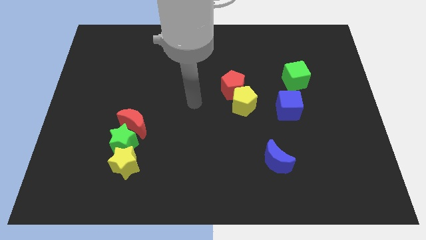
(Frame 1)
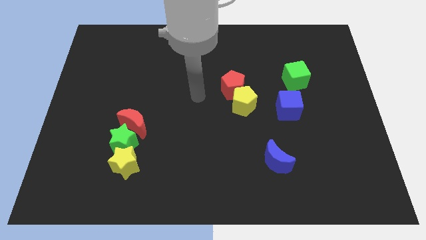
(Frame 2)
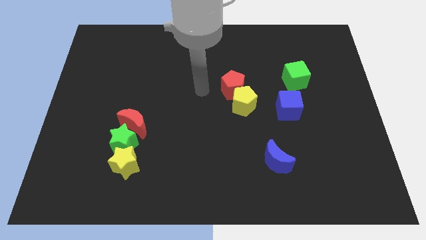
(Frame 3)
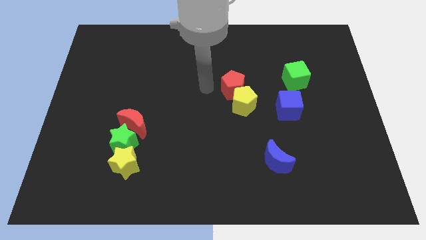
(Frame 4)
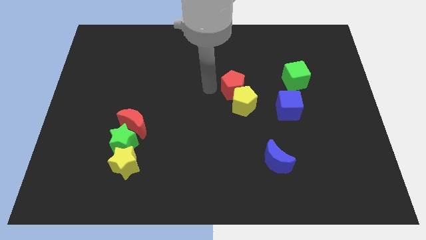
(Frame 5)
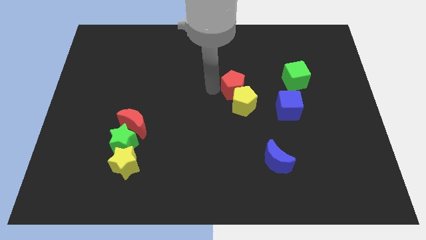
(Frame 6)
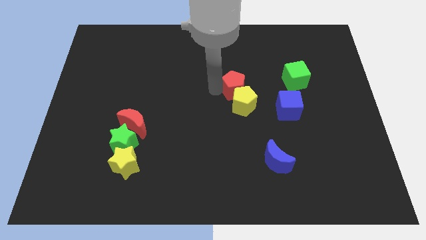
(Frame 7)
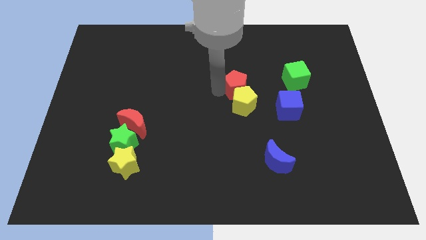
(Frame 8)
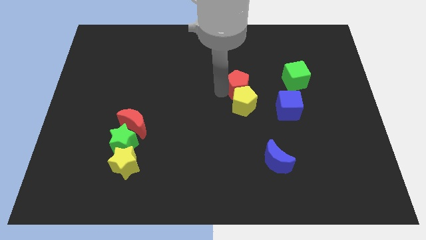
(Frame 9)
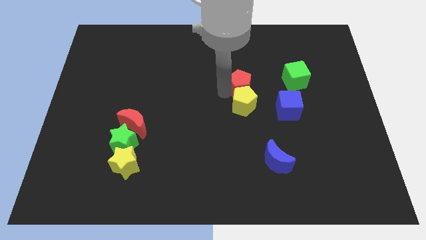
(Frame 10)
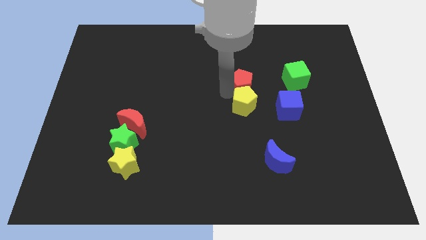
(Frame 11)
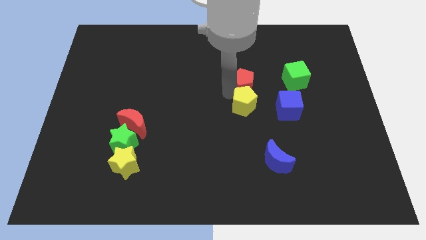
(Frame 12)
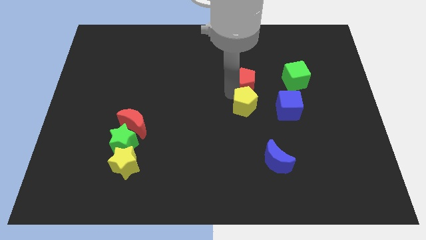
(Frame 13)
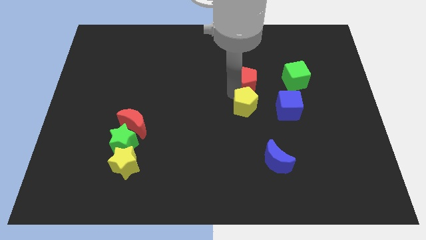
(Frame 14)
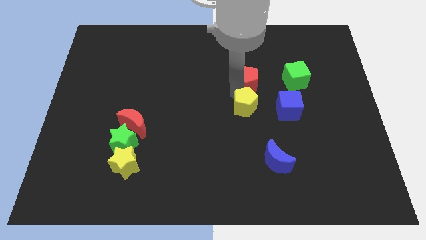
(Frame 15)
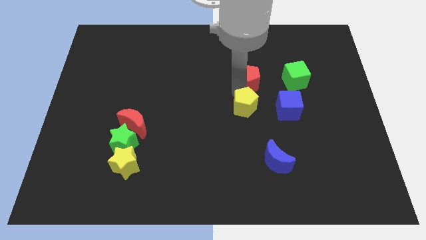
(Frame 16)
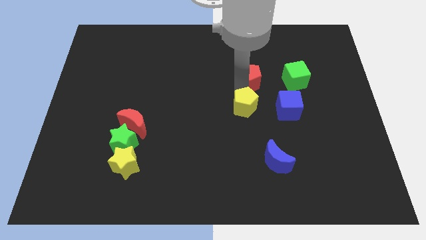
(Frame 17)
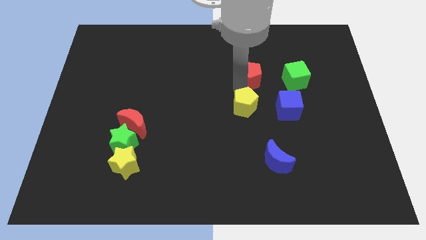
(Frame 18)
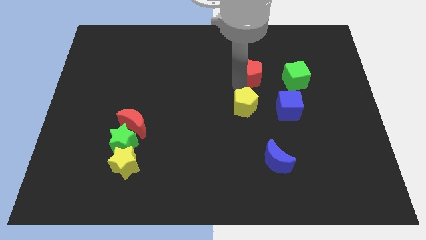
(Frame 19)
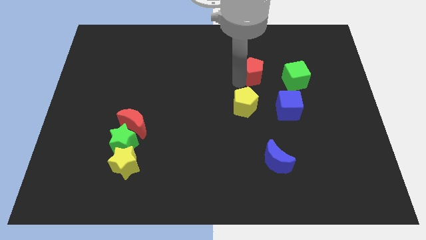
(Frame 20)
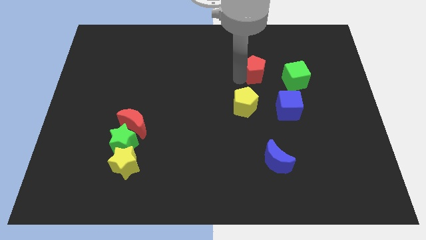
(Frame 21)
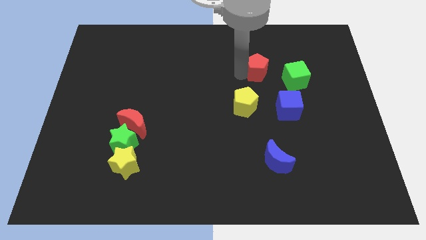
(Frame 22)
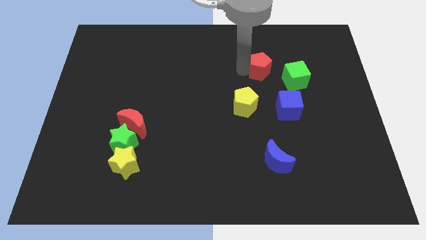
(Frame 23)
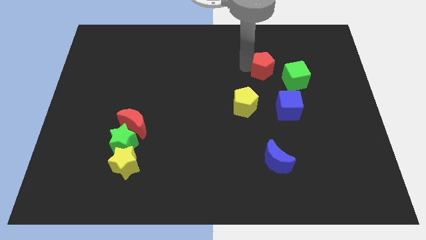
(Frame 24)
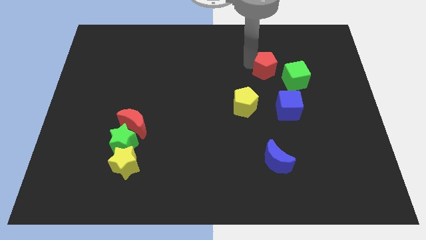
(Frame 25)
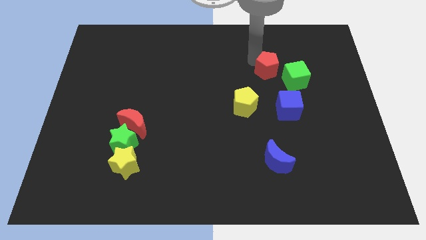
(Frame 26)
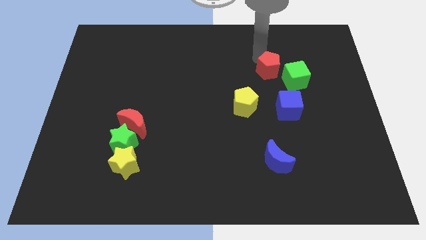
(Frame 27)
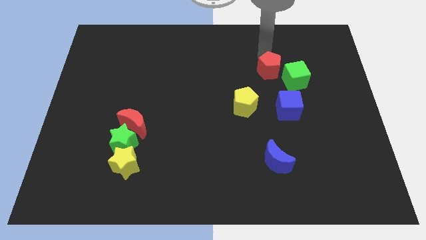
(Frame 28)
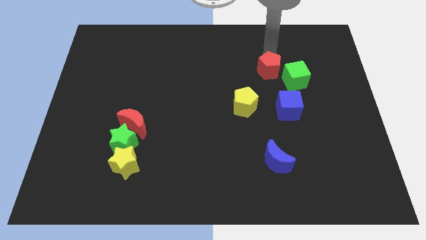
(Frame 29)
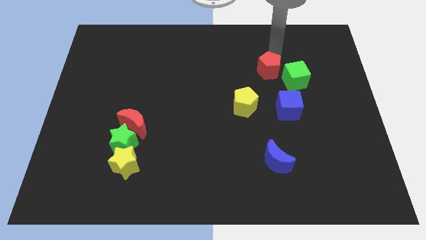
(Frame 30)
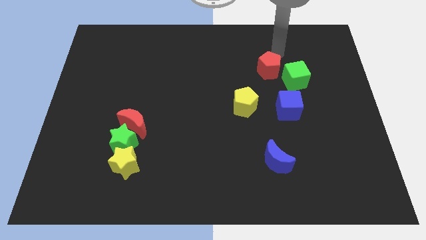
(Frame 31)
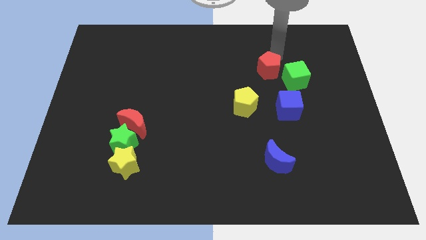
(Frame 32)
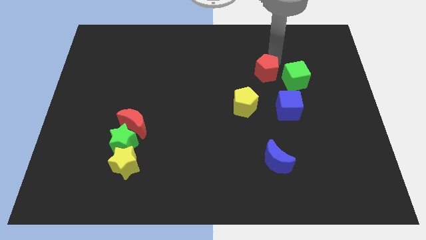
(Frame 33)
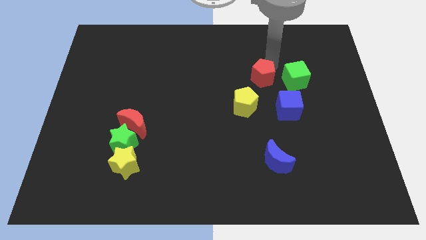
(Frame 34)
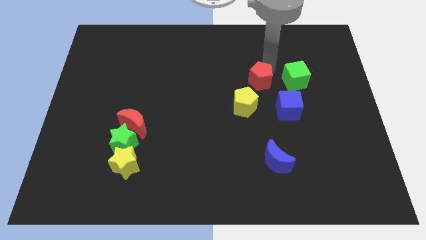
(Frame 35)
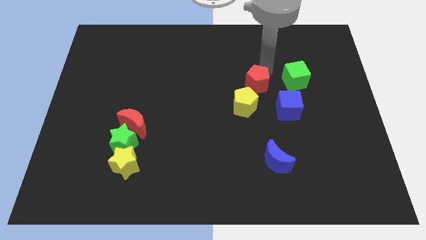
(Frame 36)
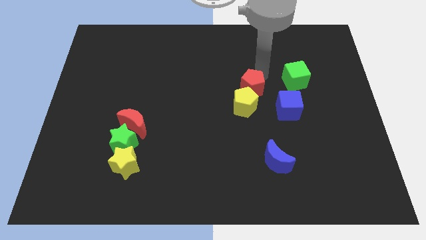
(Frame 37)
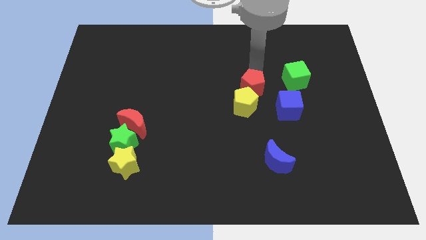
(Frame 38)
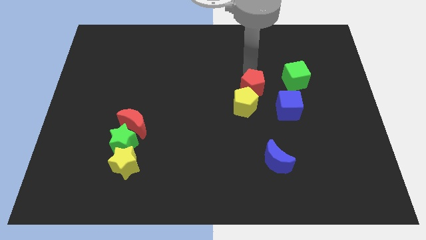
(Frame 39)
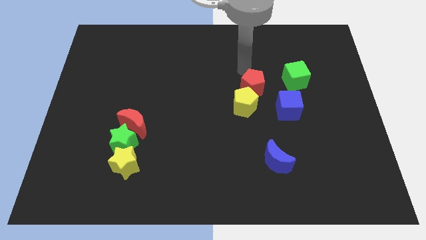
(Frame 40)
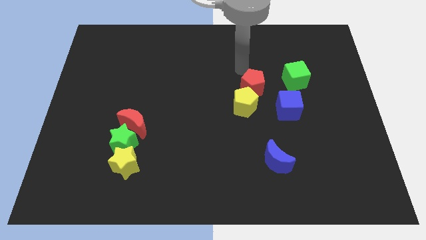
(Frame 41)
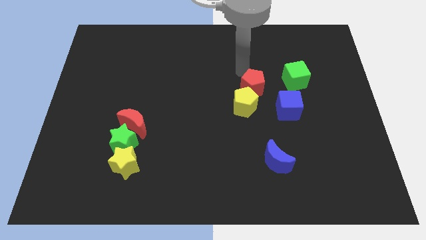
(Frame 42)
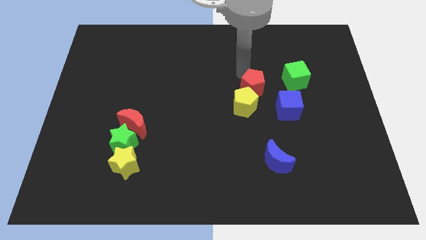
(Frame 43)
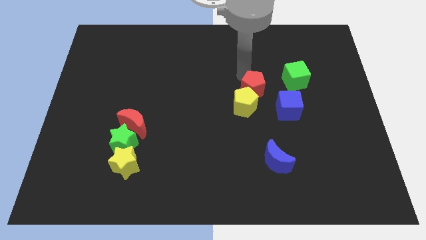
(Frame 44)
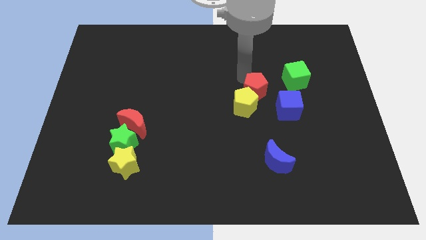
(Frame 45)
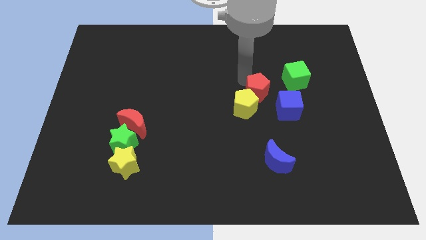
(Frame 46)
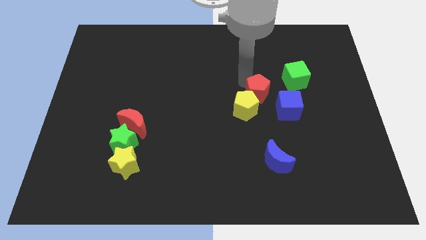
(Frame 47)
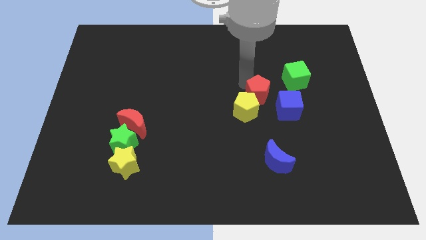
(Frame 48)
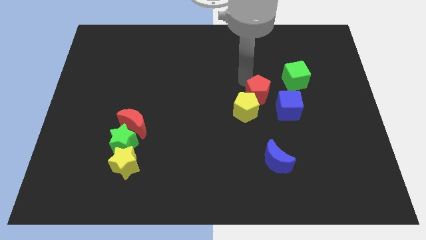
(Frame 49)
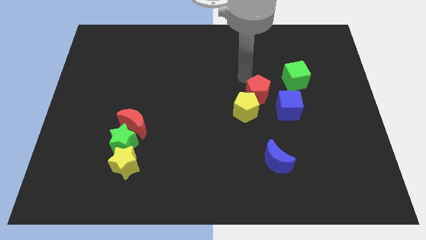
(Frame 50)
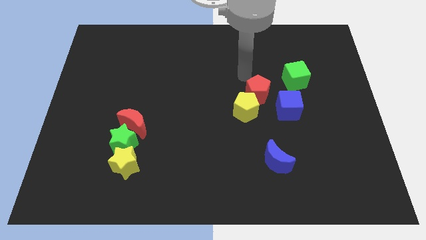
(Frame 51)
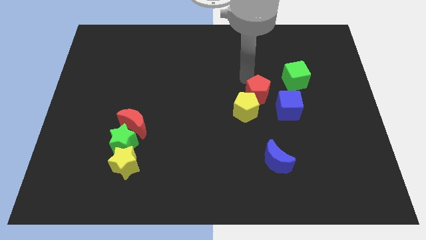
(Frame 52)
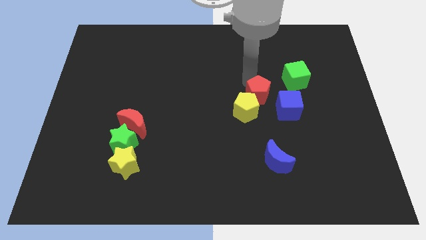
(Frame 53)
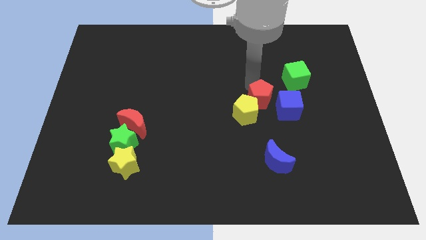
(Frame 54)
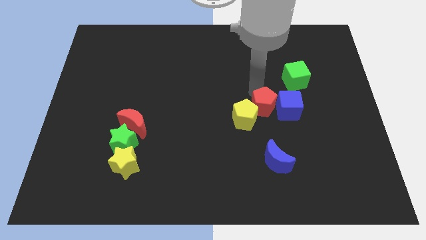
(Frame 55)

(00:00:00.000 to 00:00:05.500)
slightly move the red pentagon down and then to the right

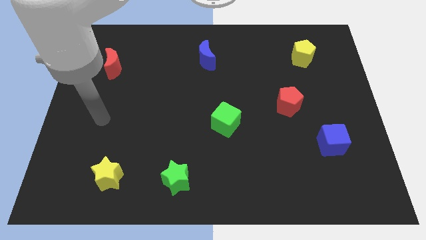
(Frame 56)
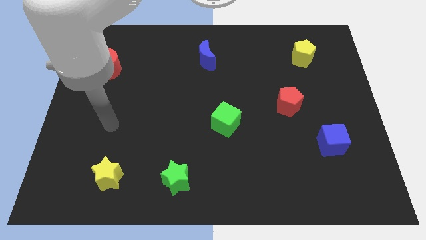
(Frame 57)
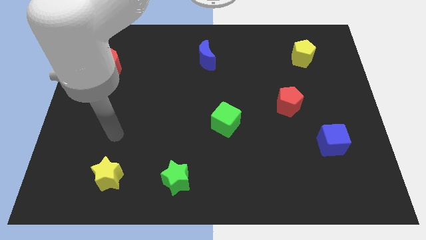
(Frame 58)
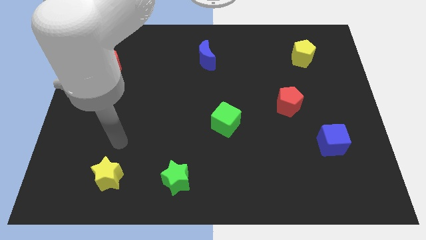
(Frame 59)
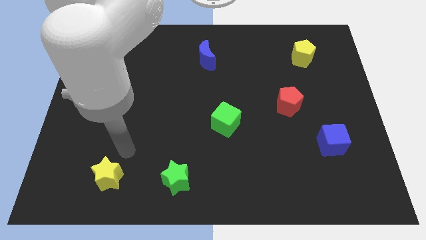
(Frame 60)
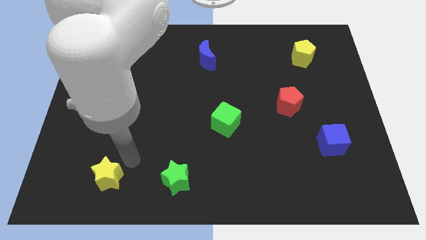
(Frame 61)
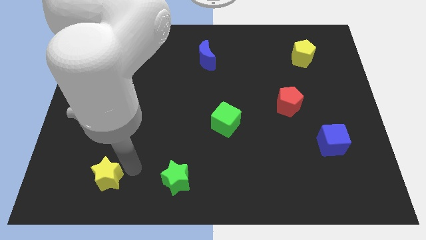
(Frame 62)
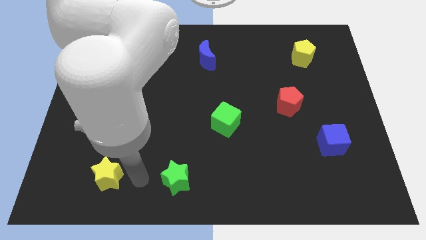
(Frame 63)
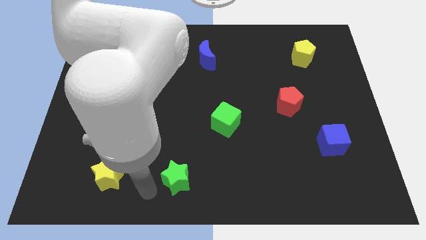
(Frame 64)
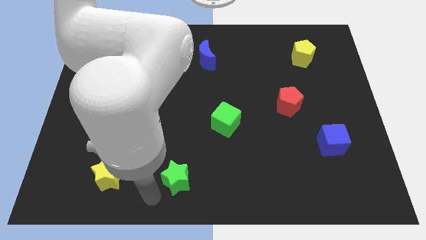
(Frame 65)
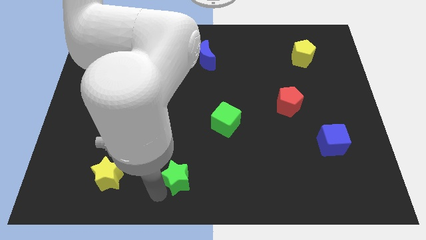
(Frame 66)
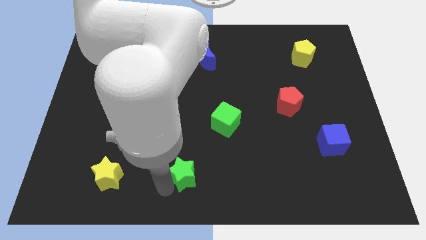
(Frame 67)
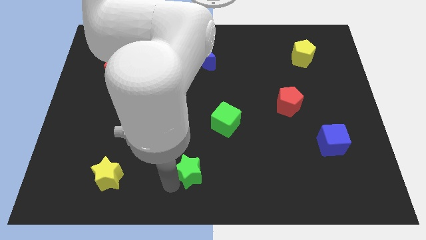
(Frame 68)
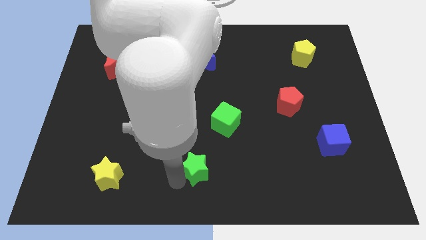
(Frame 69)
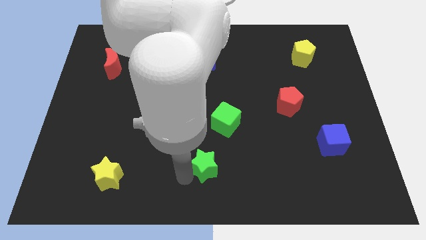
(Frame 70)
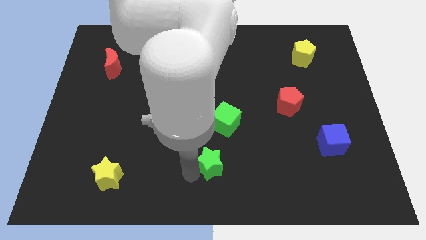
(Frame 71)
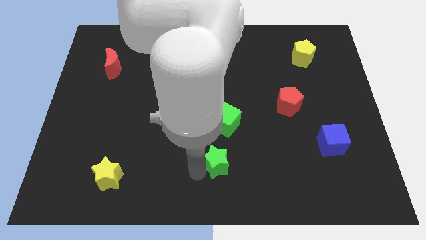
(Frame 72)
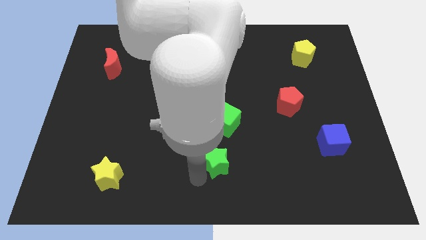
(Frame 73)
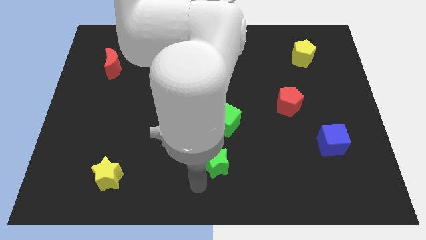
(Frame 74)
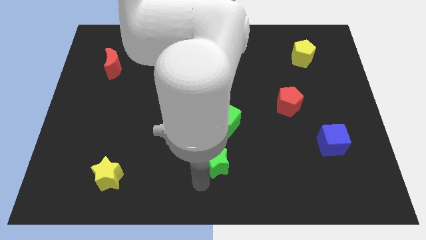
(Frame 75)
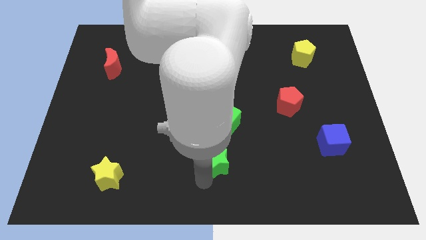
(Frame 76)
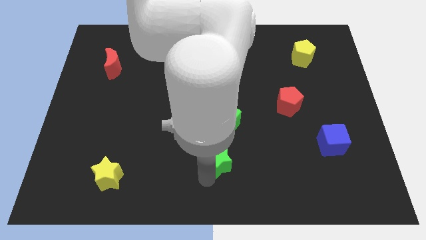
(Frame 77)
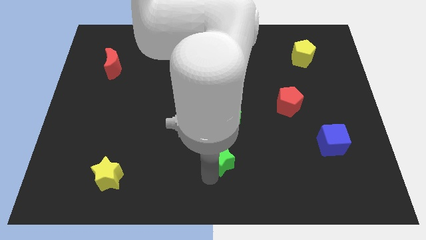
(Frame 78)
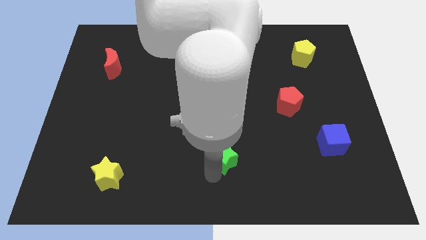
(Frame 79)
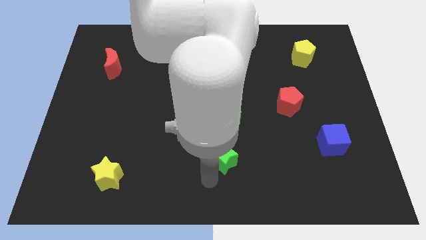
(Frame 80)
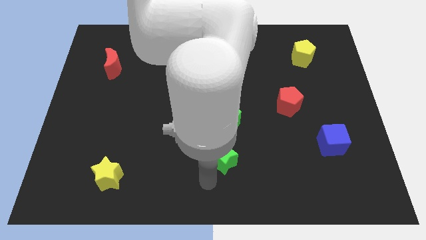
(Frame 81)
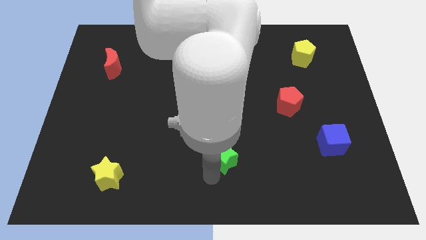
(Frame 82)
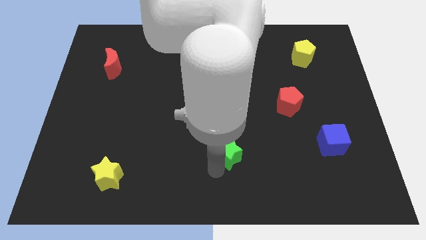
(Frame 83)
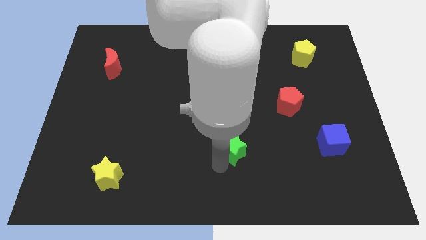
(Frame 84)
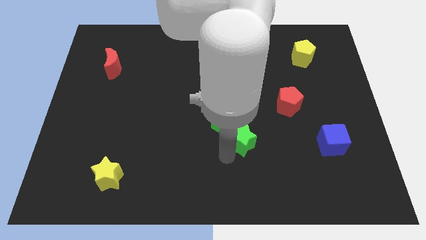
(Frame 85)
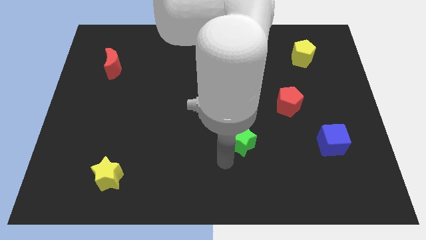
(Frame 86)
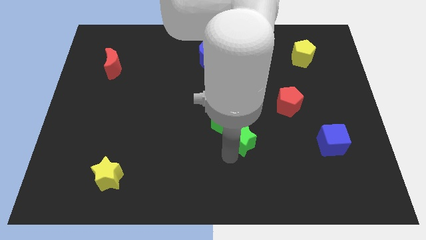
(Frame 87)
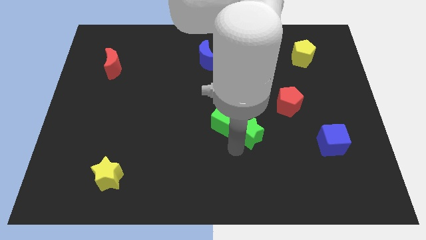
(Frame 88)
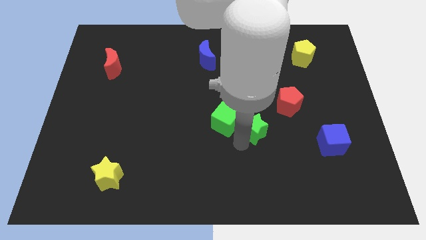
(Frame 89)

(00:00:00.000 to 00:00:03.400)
slide the green star upwards and to the right diagonally
